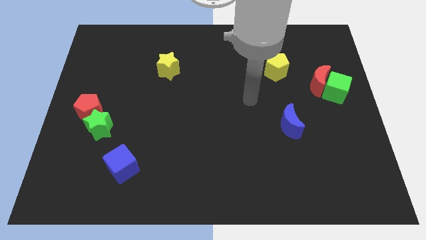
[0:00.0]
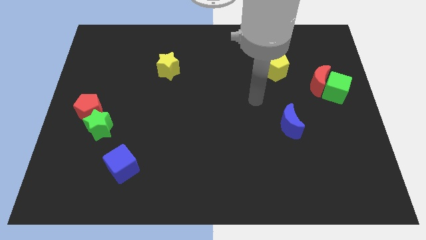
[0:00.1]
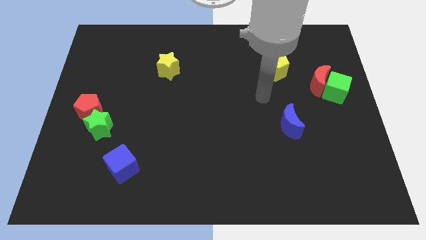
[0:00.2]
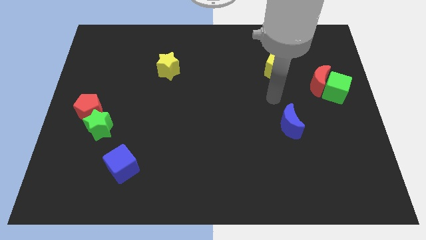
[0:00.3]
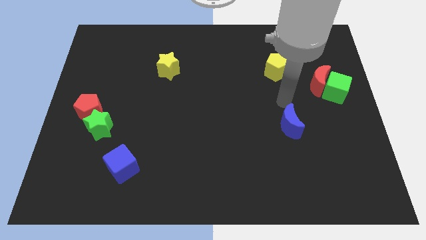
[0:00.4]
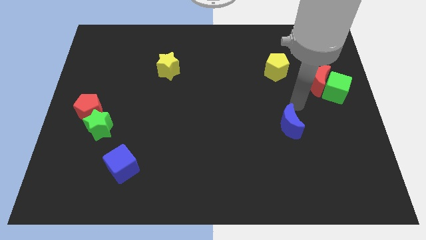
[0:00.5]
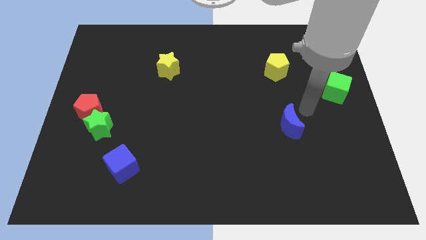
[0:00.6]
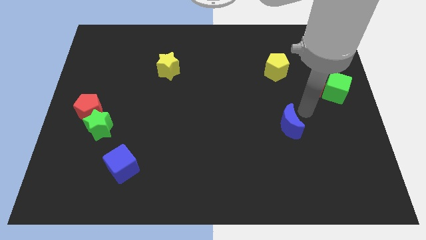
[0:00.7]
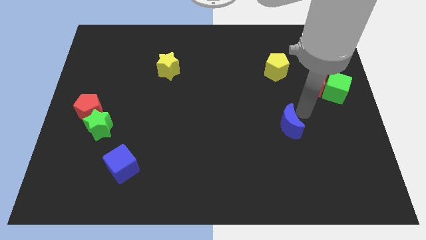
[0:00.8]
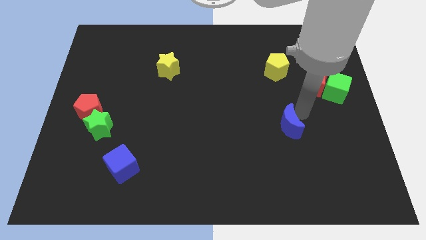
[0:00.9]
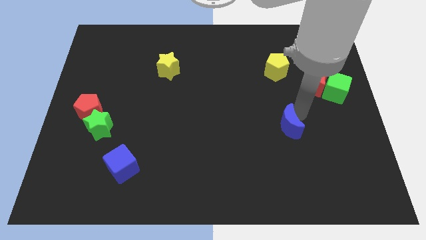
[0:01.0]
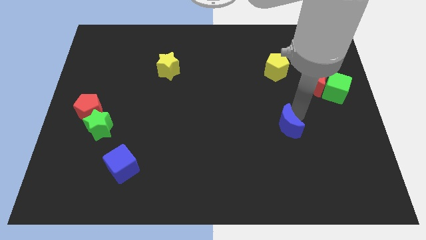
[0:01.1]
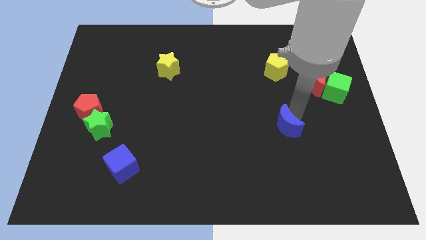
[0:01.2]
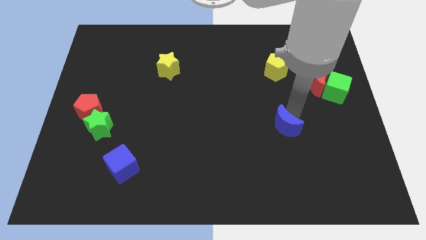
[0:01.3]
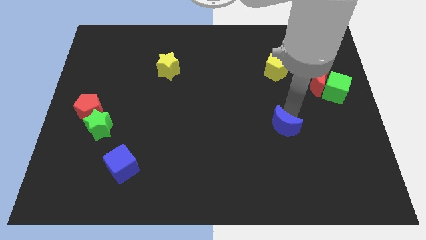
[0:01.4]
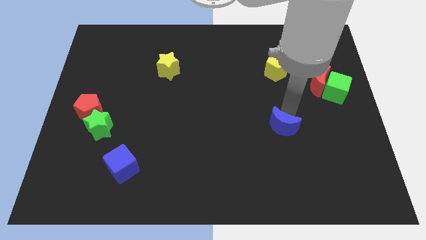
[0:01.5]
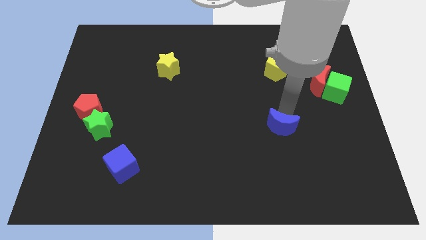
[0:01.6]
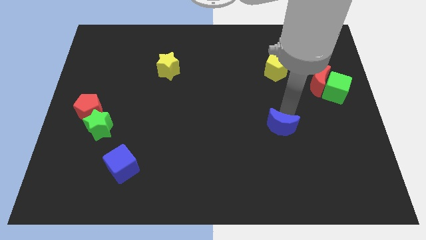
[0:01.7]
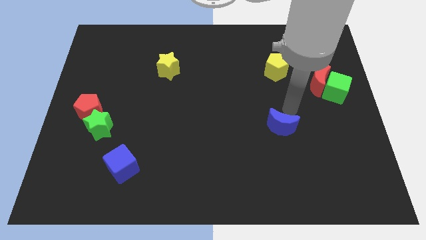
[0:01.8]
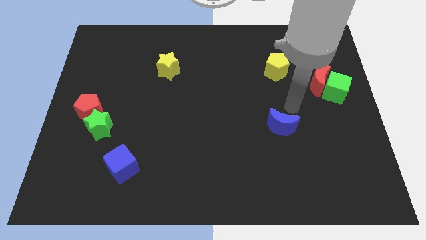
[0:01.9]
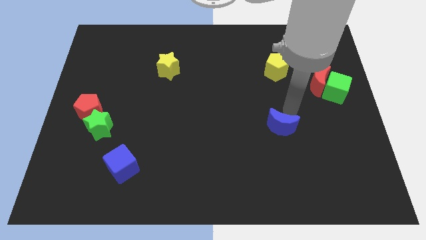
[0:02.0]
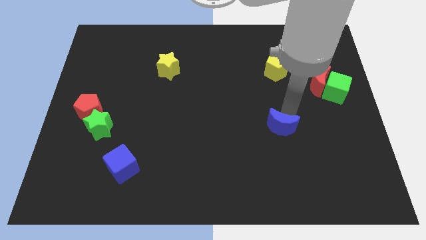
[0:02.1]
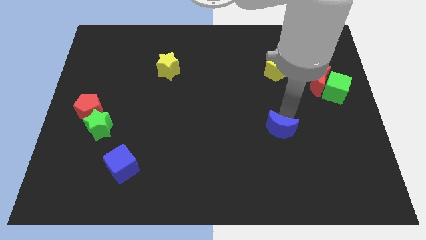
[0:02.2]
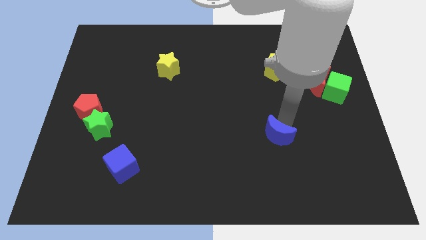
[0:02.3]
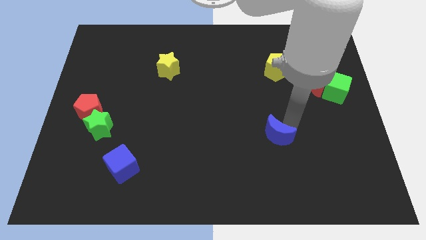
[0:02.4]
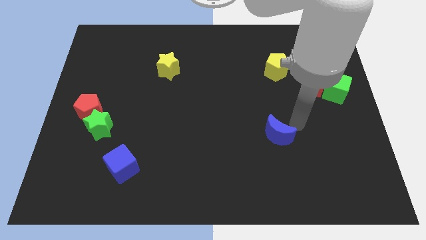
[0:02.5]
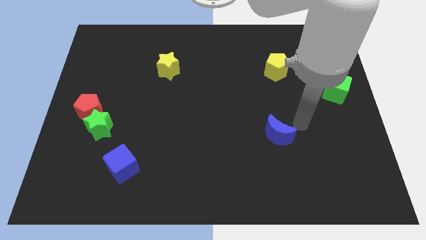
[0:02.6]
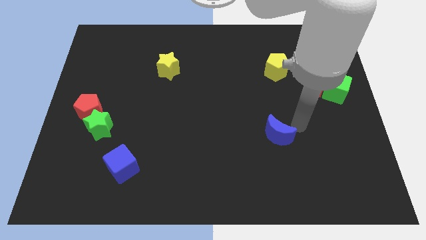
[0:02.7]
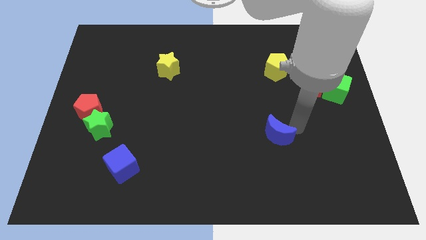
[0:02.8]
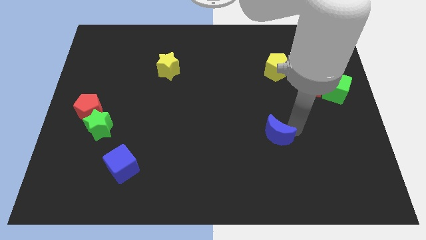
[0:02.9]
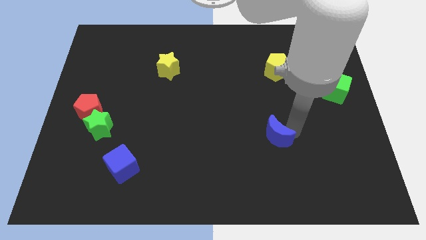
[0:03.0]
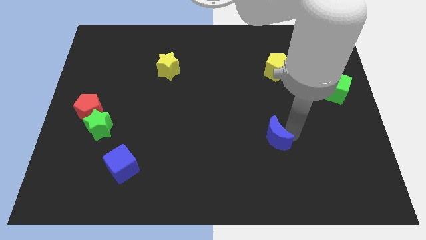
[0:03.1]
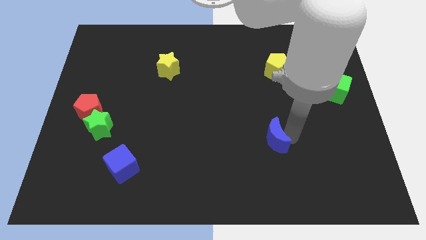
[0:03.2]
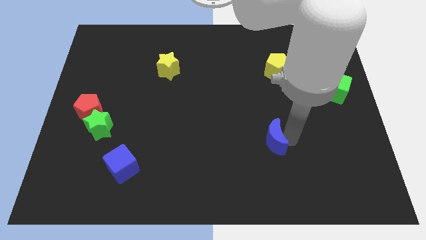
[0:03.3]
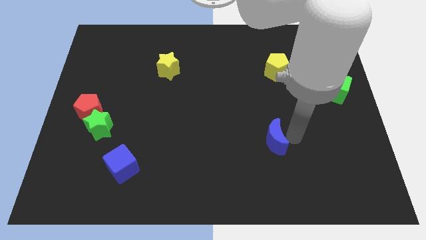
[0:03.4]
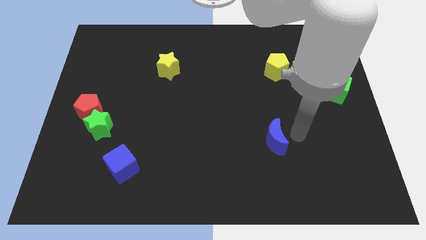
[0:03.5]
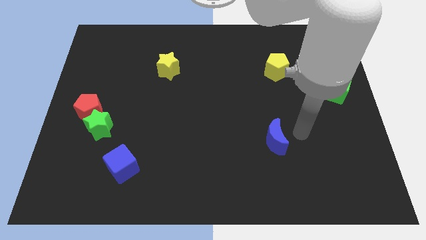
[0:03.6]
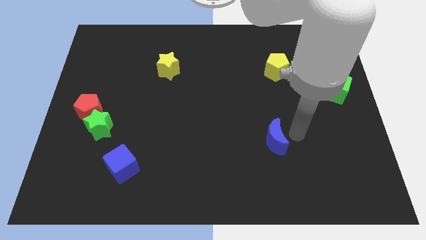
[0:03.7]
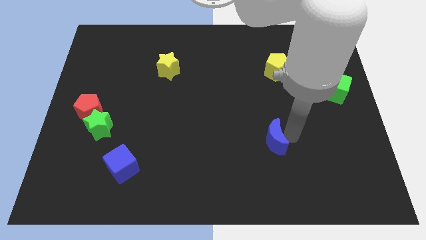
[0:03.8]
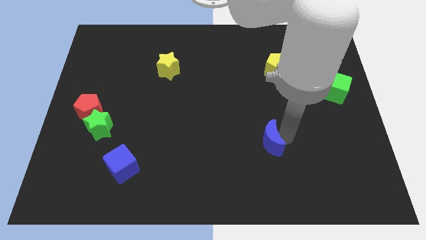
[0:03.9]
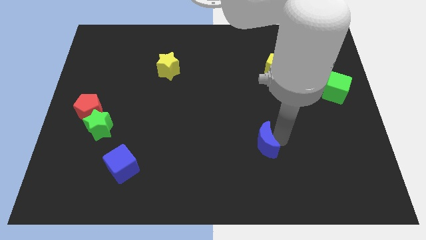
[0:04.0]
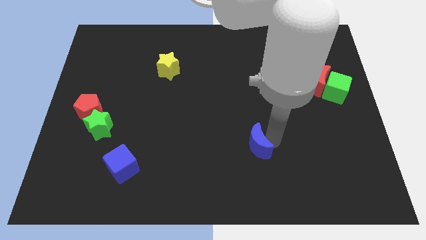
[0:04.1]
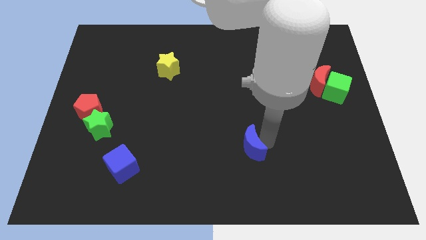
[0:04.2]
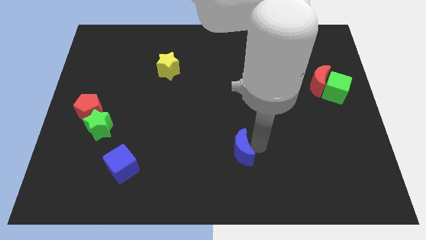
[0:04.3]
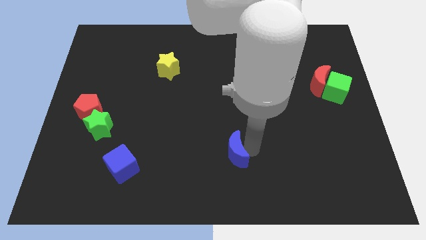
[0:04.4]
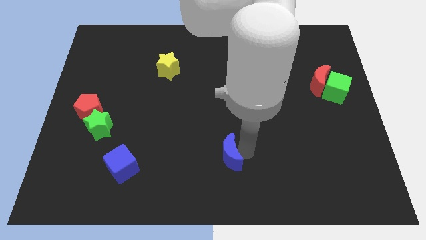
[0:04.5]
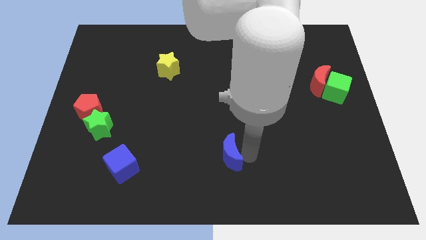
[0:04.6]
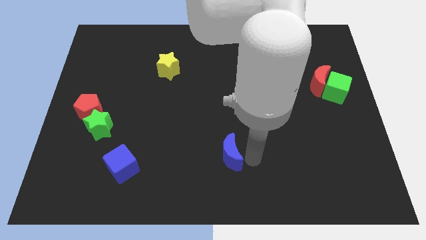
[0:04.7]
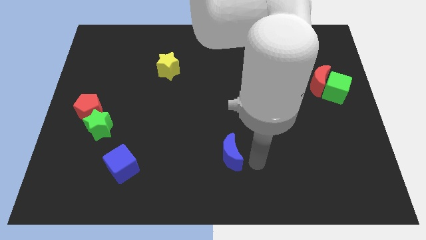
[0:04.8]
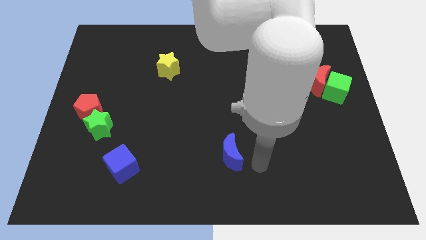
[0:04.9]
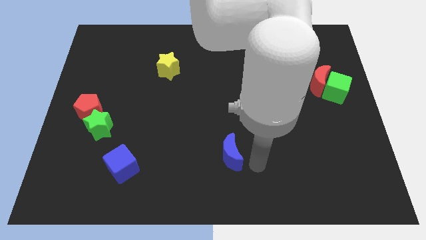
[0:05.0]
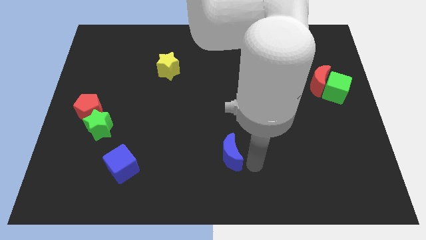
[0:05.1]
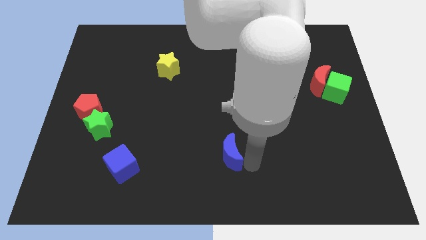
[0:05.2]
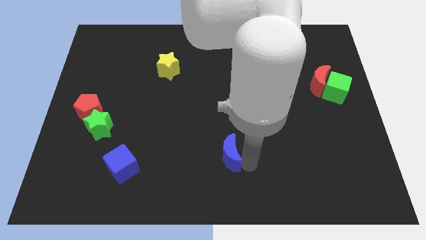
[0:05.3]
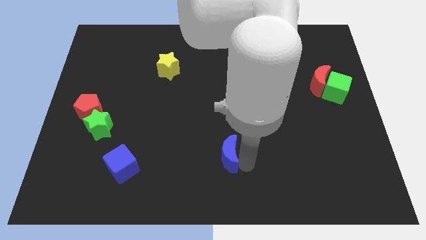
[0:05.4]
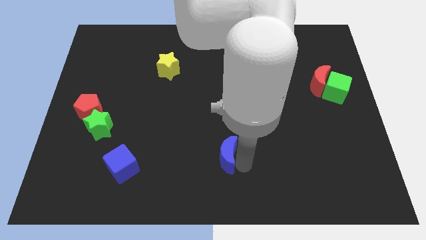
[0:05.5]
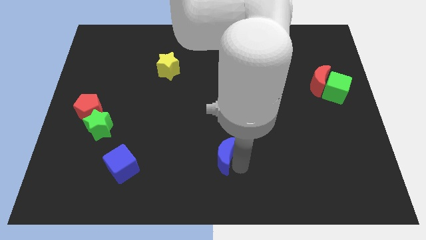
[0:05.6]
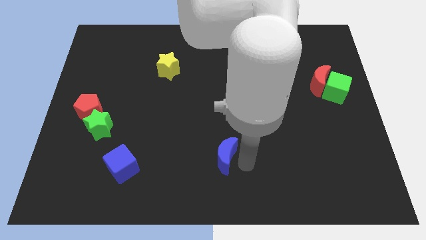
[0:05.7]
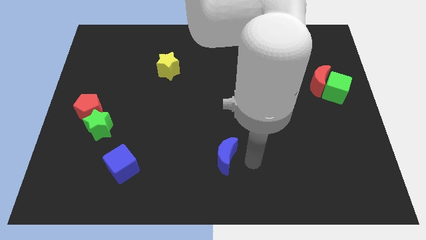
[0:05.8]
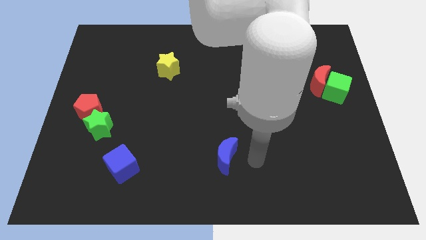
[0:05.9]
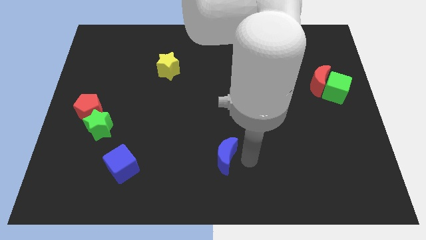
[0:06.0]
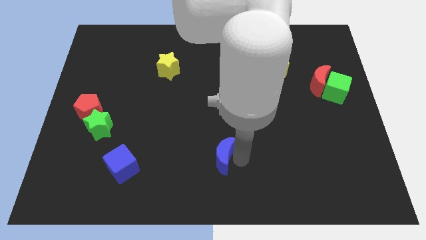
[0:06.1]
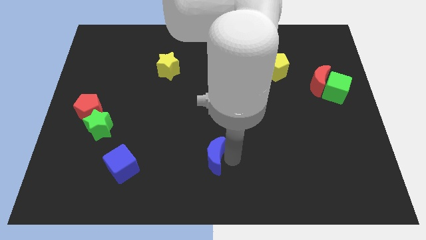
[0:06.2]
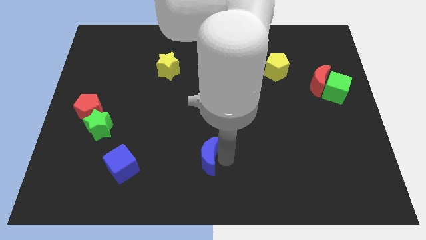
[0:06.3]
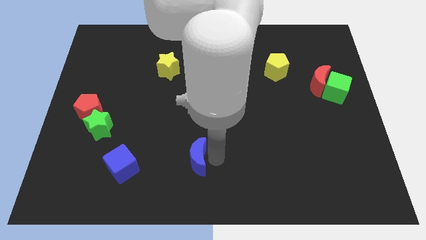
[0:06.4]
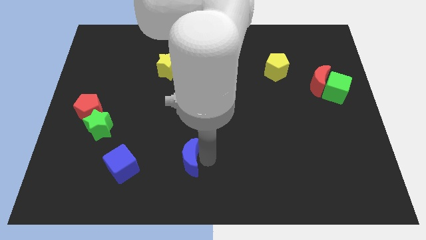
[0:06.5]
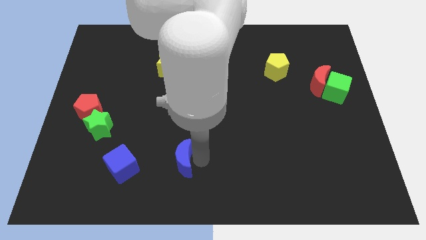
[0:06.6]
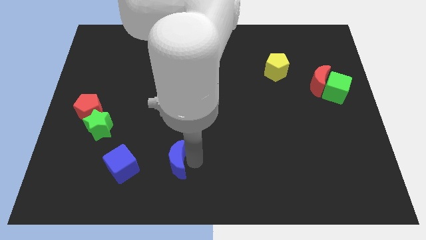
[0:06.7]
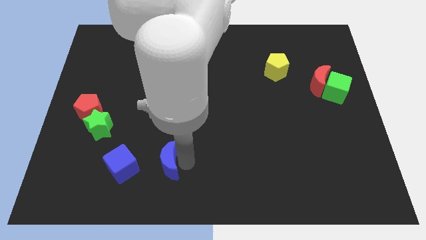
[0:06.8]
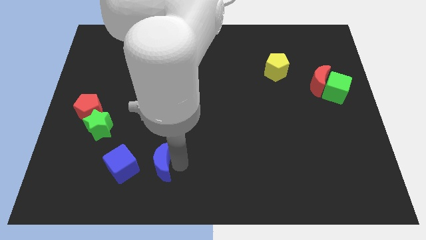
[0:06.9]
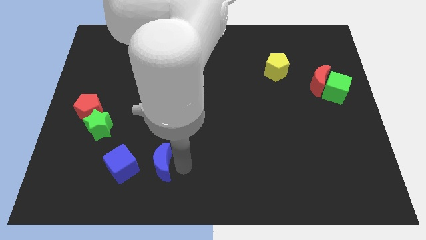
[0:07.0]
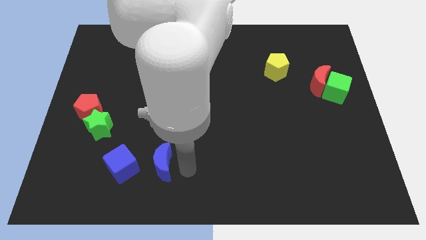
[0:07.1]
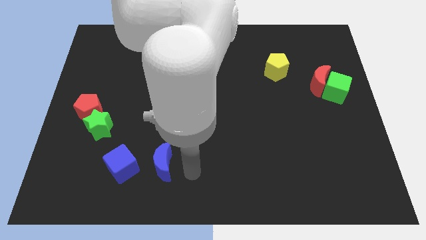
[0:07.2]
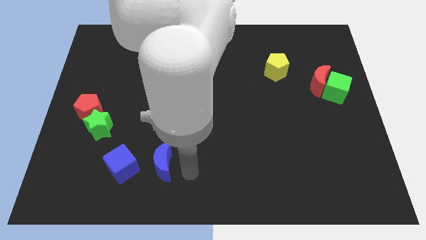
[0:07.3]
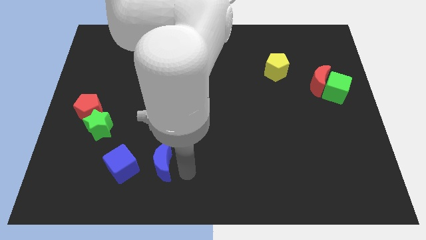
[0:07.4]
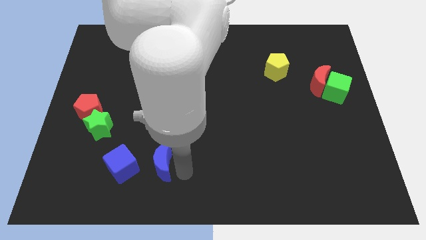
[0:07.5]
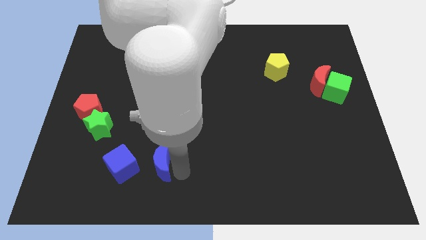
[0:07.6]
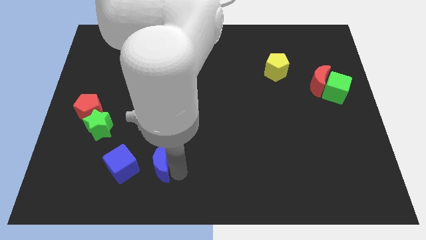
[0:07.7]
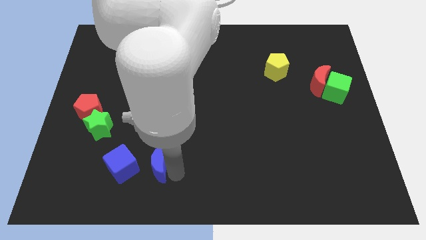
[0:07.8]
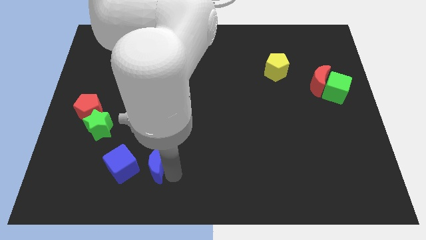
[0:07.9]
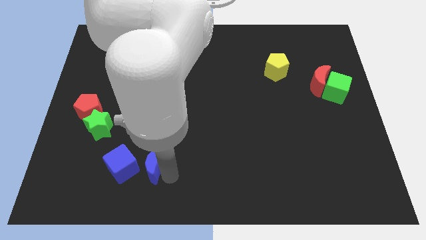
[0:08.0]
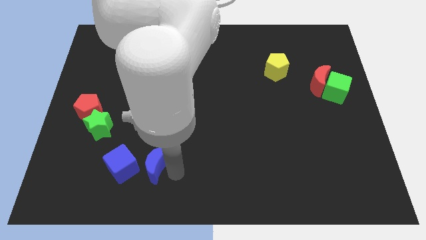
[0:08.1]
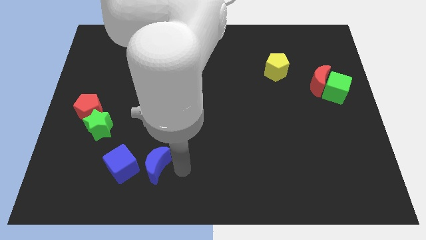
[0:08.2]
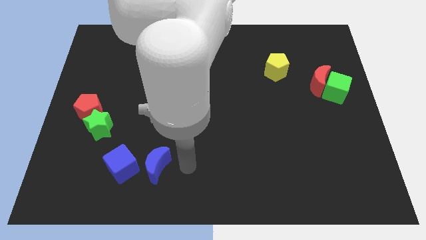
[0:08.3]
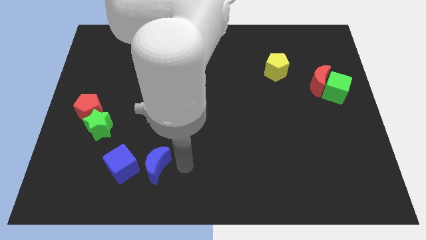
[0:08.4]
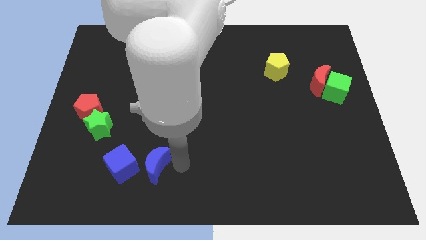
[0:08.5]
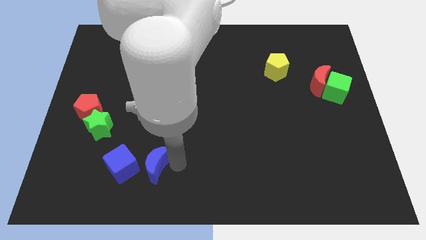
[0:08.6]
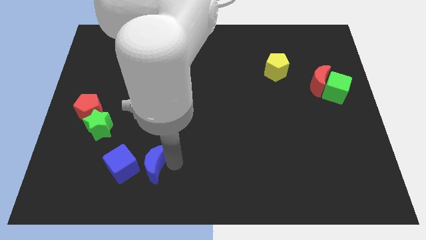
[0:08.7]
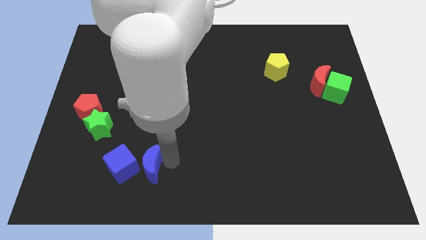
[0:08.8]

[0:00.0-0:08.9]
slide the blue moon to the blue cube
